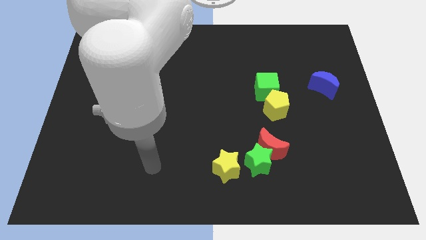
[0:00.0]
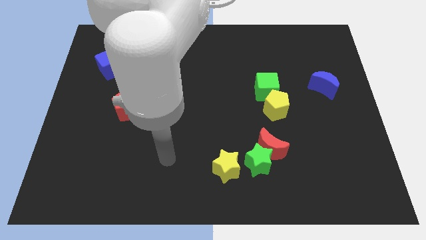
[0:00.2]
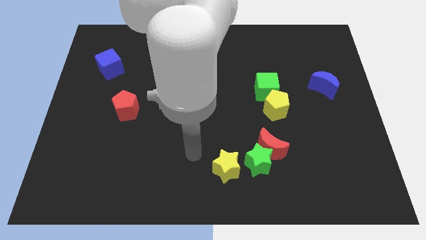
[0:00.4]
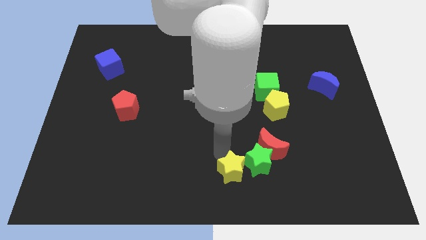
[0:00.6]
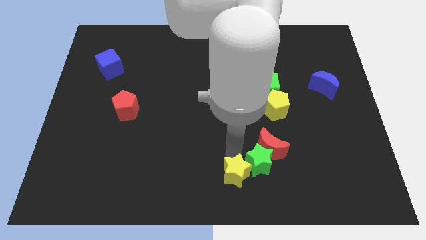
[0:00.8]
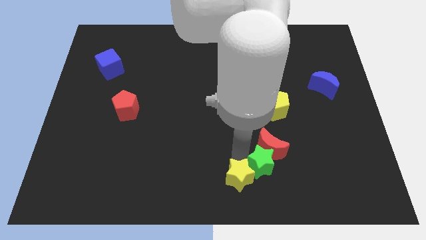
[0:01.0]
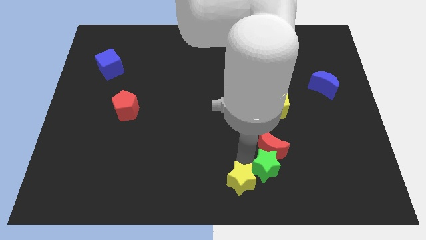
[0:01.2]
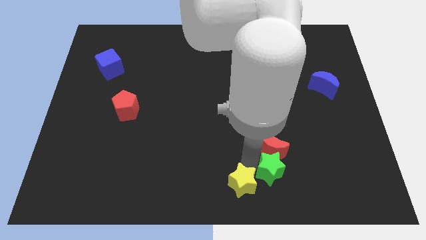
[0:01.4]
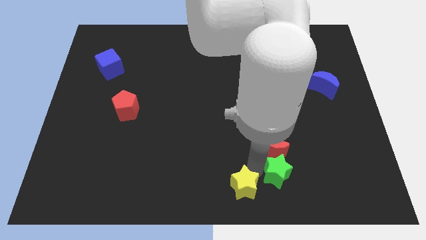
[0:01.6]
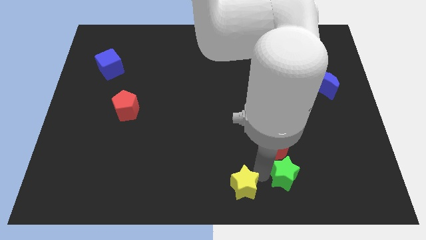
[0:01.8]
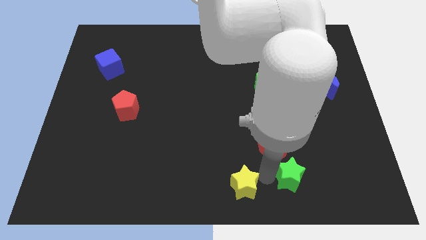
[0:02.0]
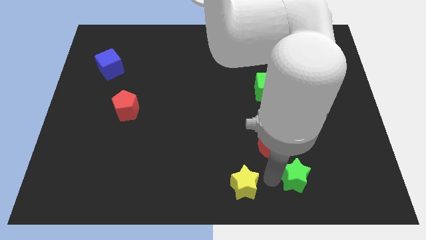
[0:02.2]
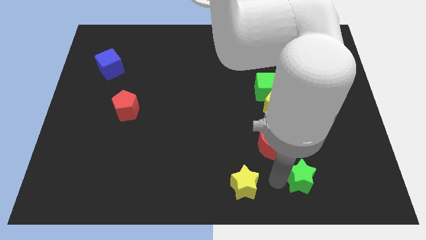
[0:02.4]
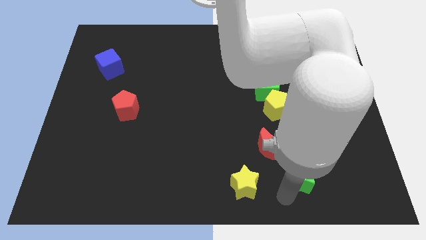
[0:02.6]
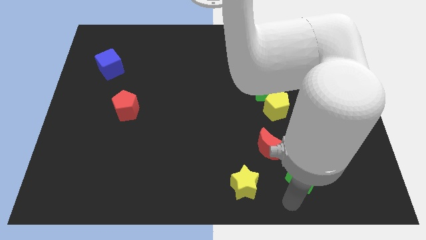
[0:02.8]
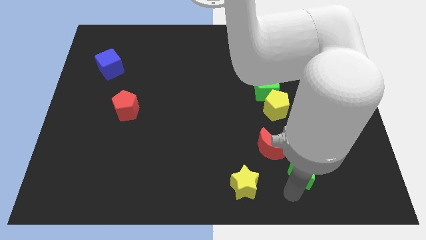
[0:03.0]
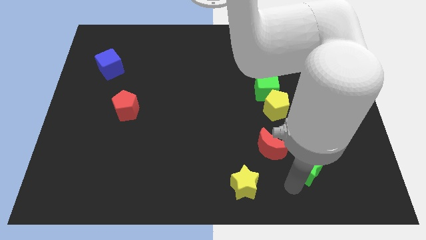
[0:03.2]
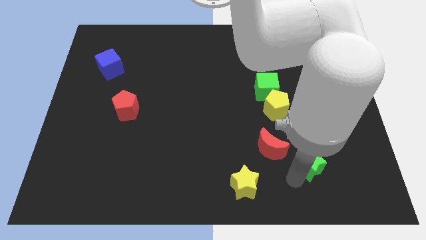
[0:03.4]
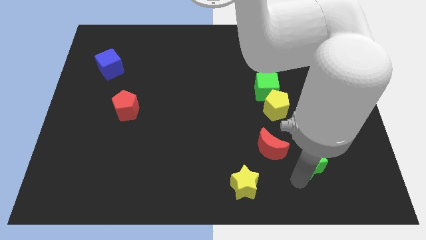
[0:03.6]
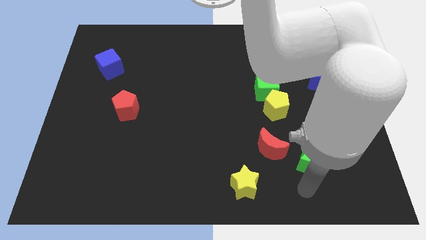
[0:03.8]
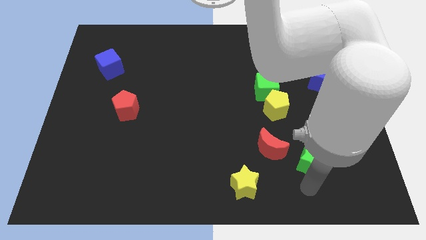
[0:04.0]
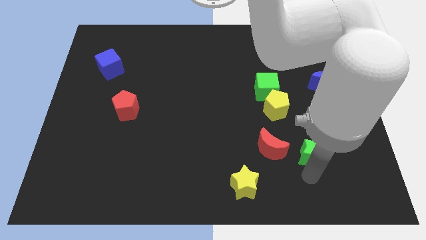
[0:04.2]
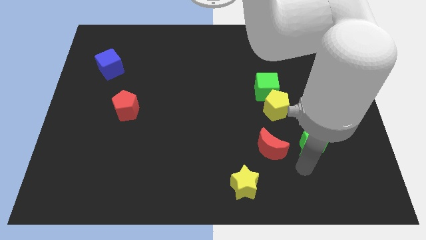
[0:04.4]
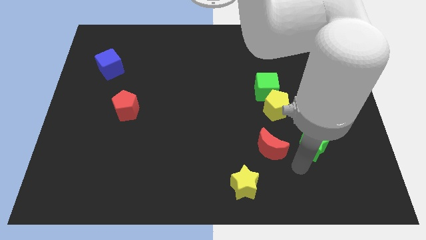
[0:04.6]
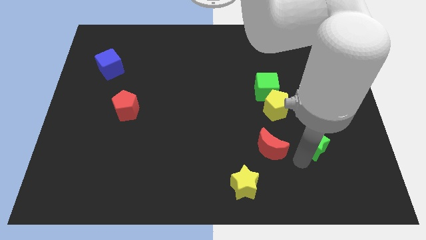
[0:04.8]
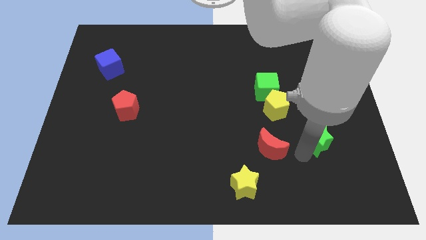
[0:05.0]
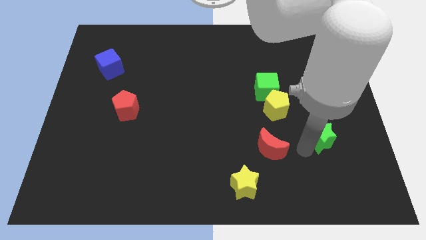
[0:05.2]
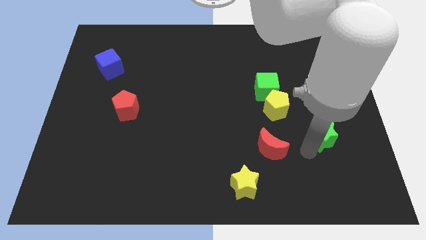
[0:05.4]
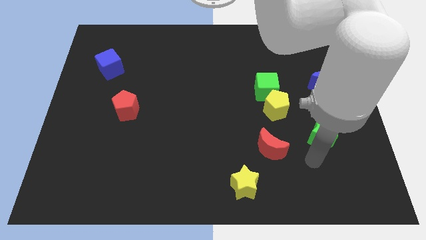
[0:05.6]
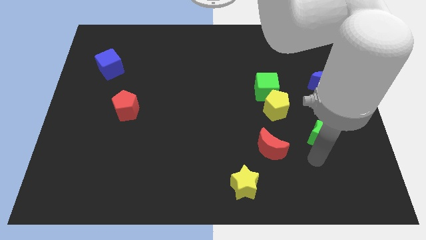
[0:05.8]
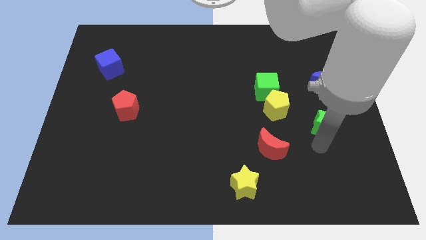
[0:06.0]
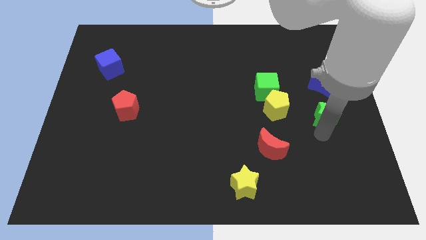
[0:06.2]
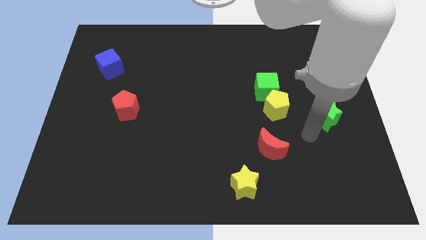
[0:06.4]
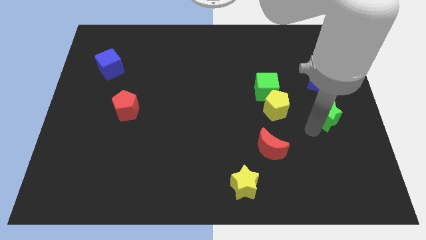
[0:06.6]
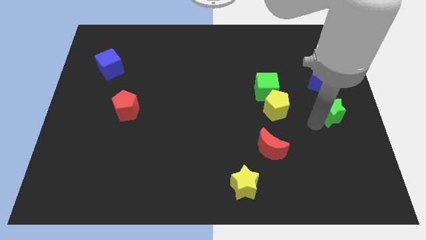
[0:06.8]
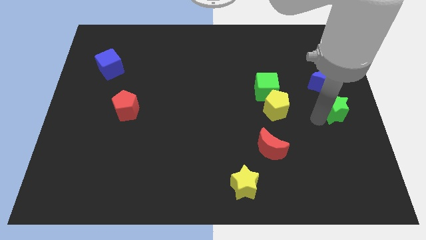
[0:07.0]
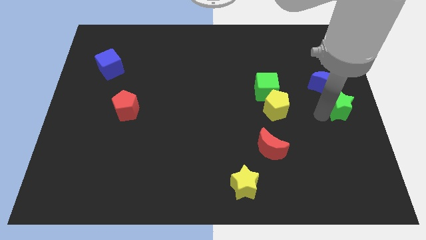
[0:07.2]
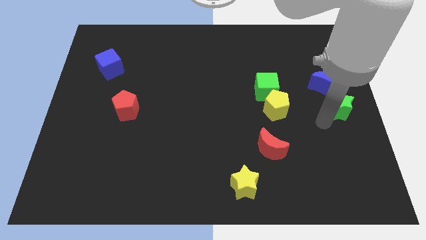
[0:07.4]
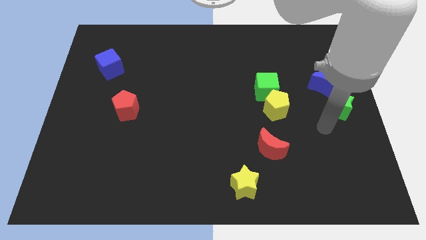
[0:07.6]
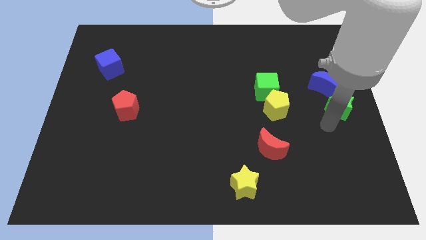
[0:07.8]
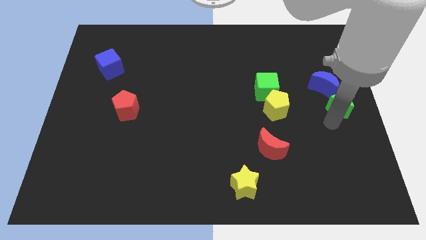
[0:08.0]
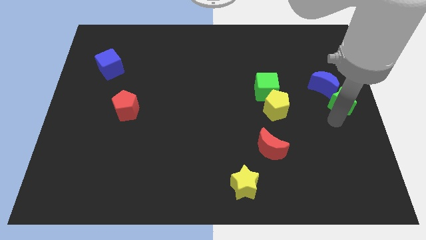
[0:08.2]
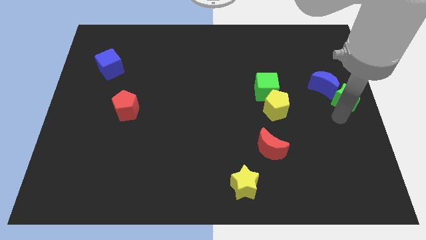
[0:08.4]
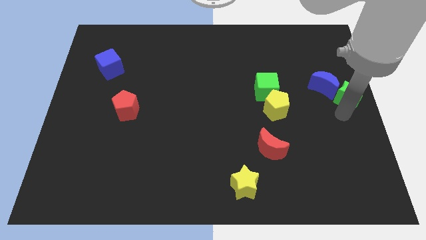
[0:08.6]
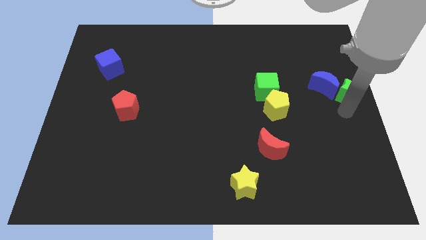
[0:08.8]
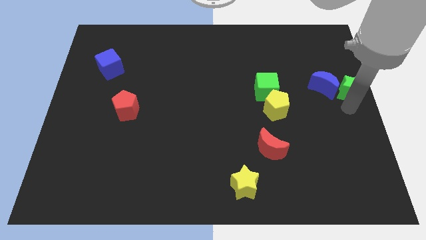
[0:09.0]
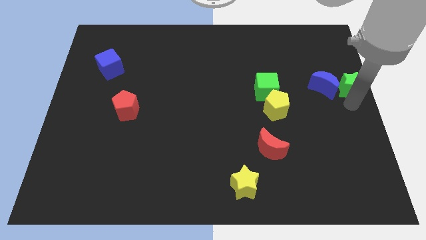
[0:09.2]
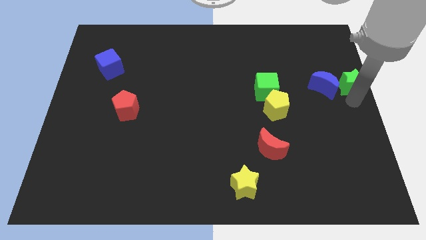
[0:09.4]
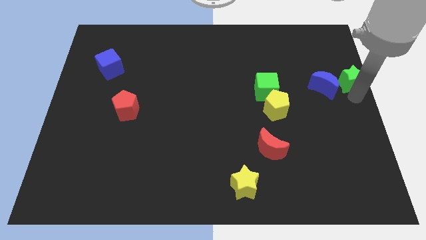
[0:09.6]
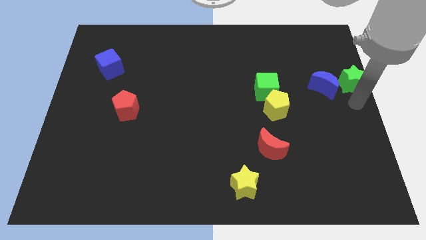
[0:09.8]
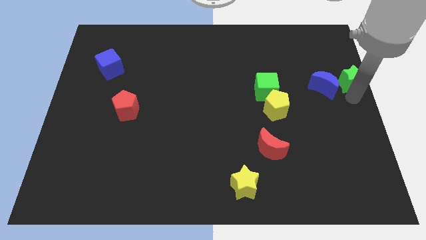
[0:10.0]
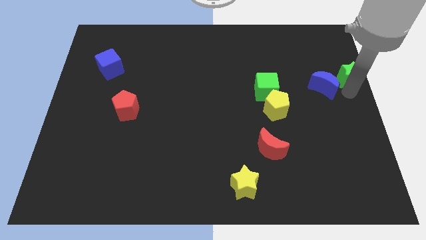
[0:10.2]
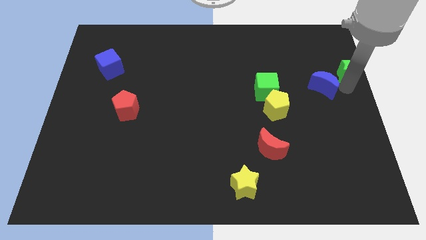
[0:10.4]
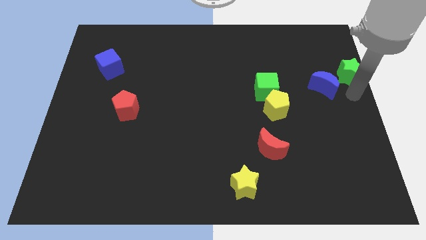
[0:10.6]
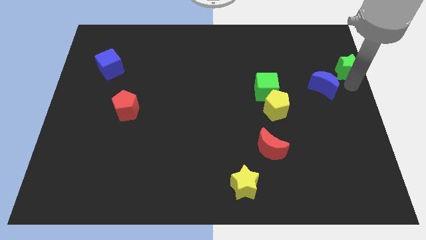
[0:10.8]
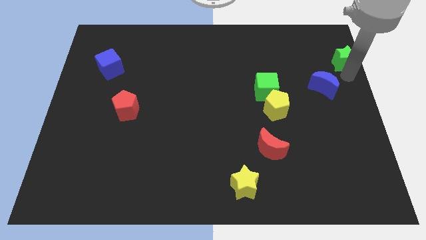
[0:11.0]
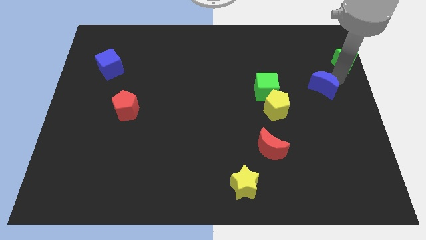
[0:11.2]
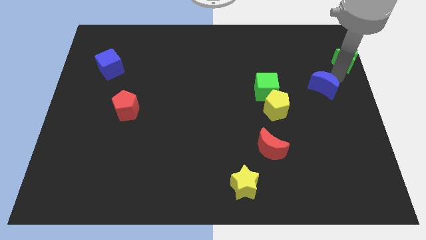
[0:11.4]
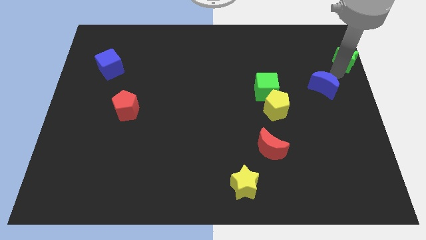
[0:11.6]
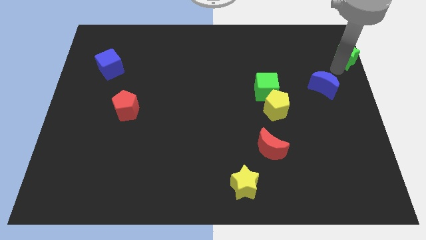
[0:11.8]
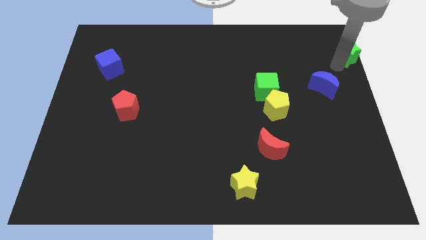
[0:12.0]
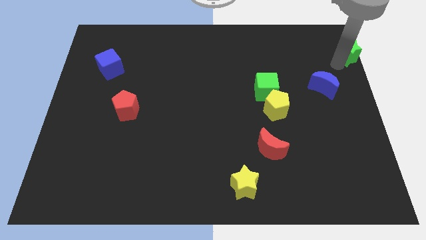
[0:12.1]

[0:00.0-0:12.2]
push the green star to the upper right corner
